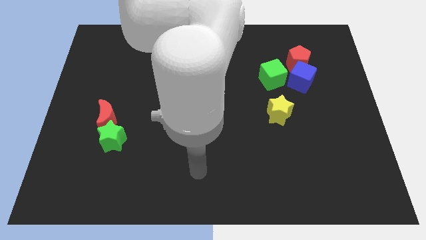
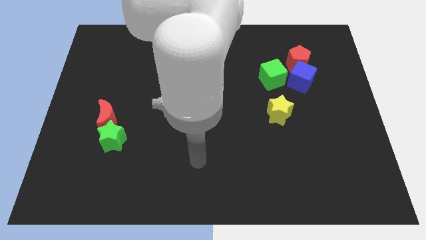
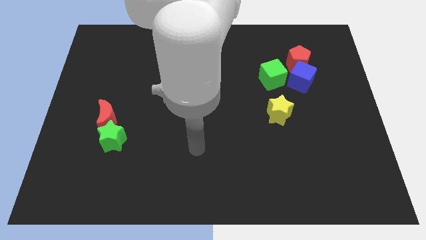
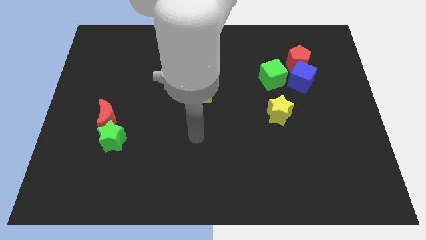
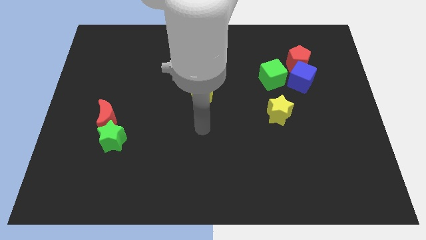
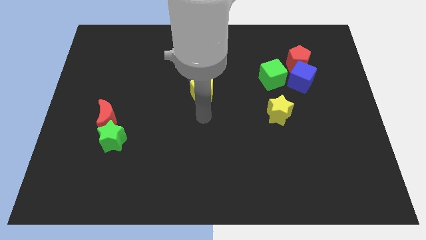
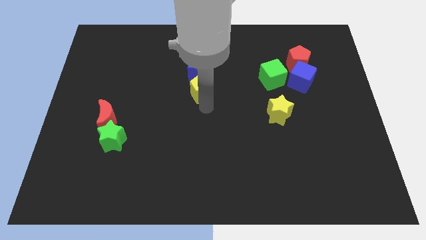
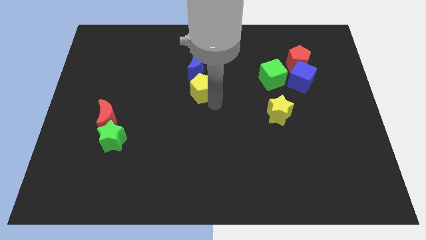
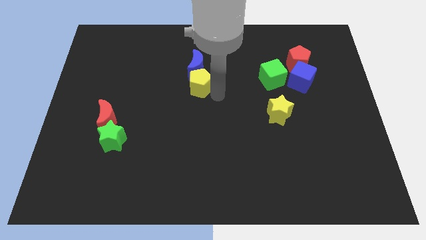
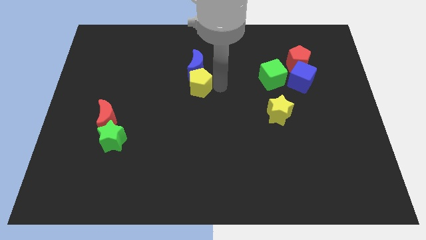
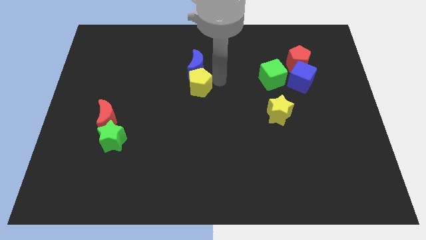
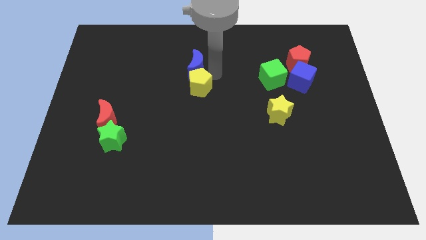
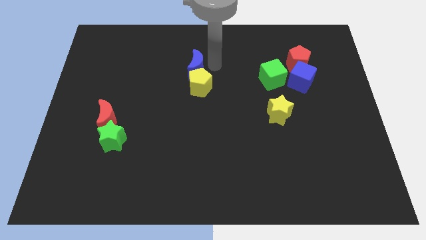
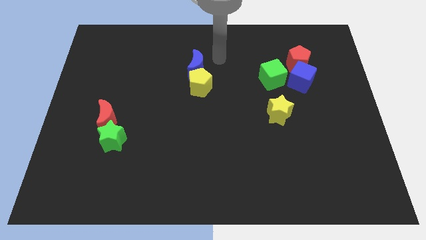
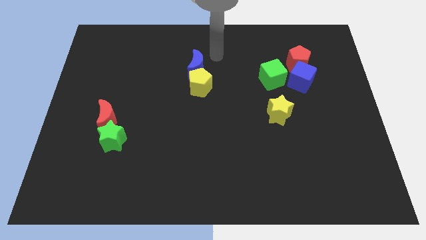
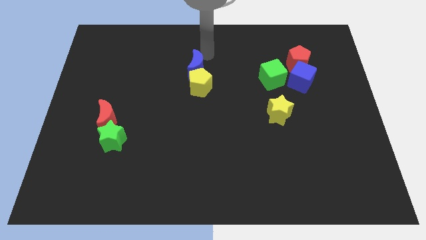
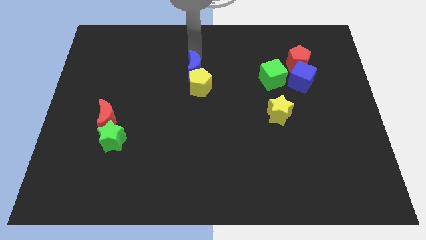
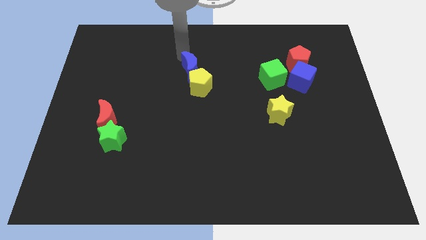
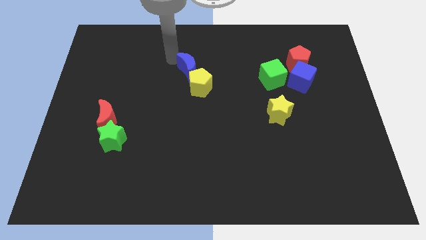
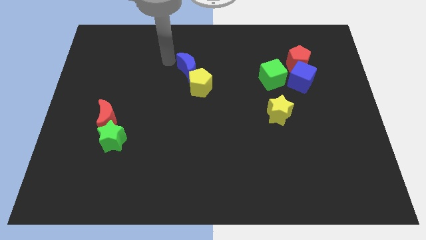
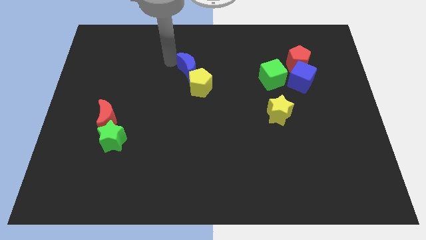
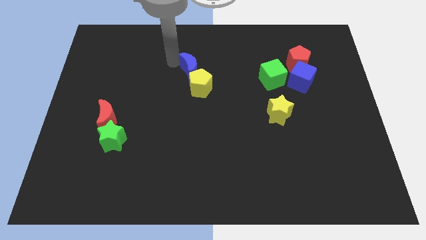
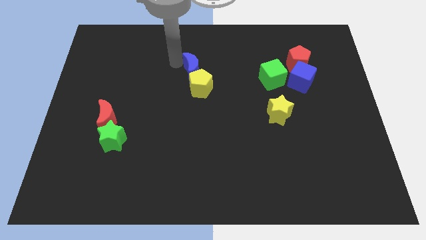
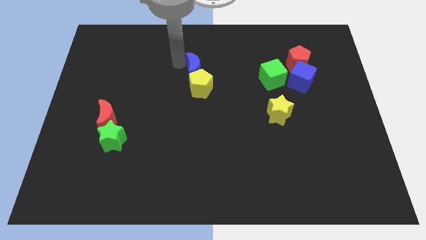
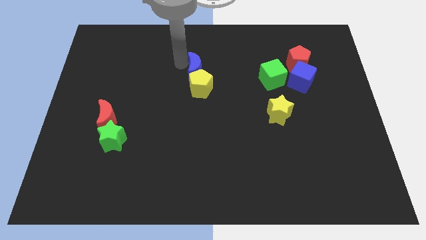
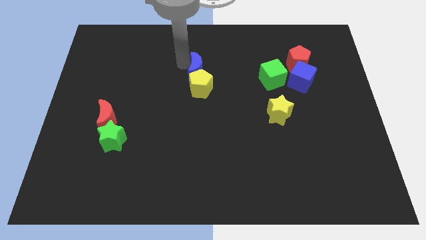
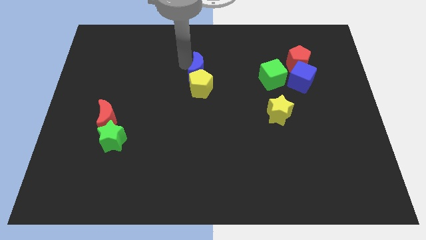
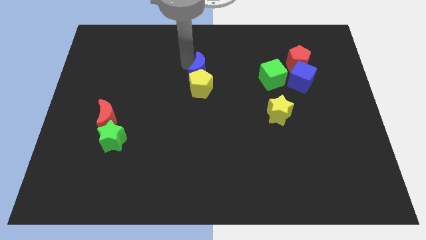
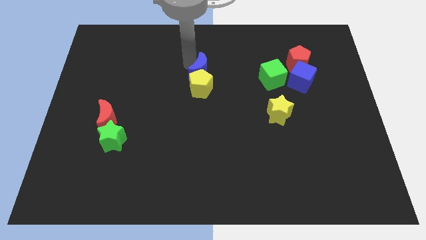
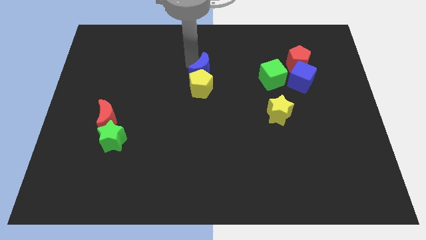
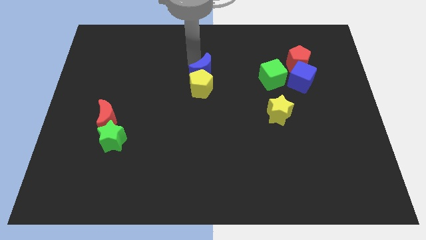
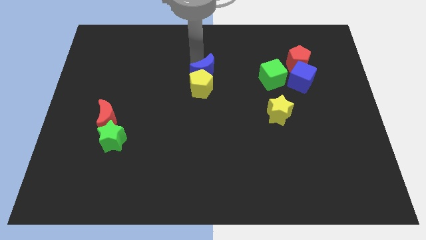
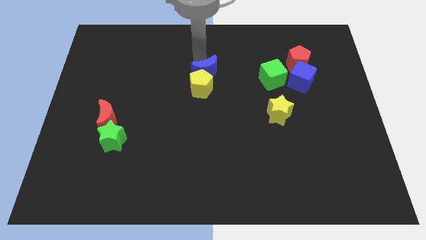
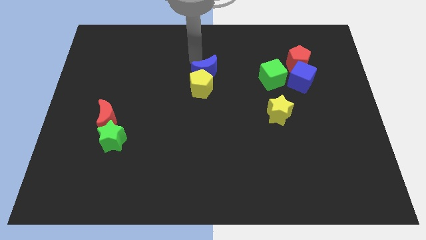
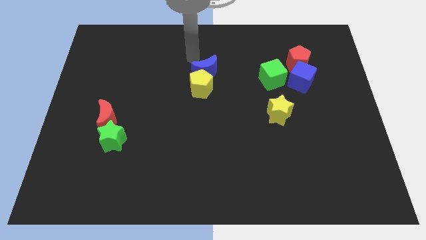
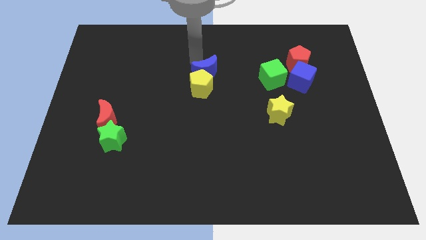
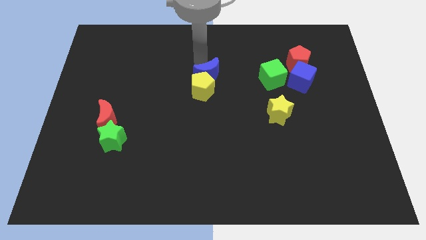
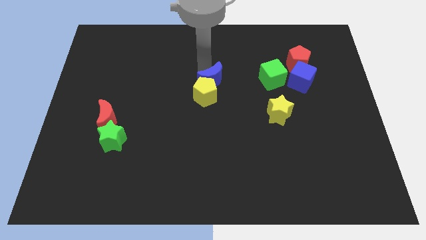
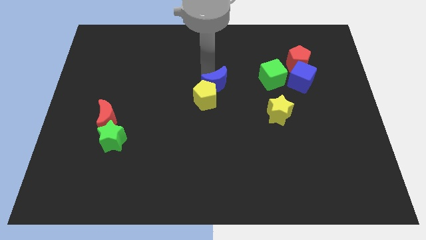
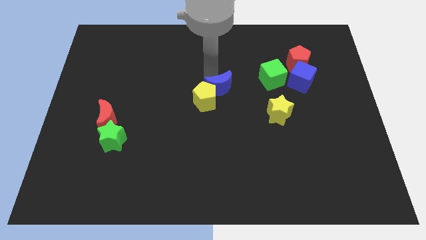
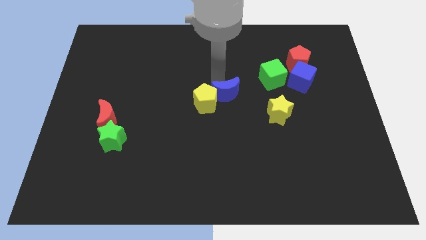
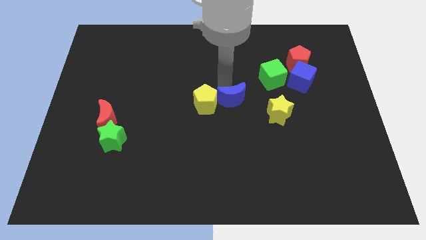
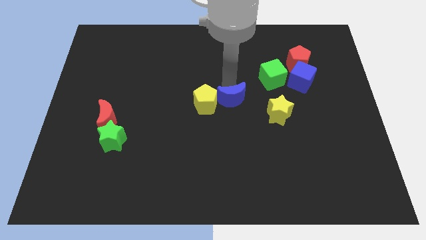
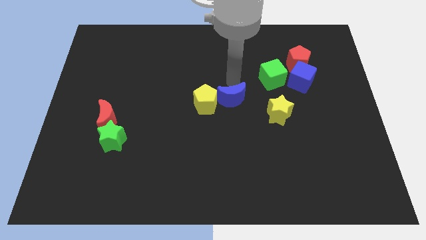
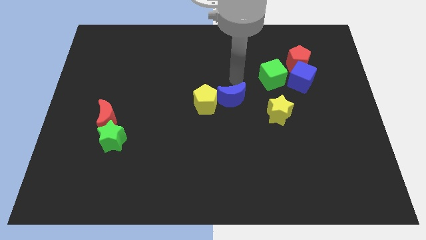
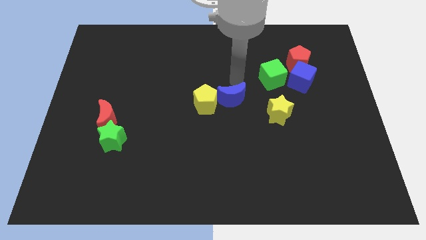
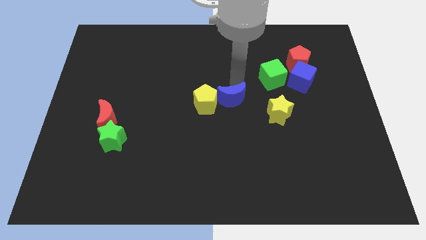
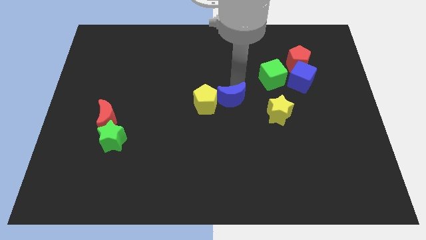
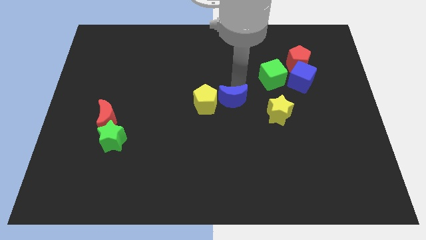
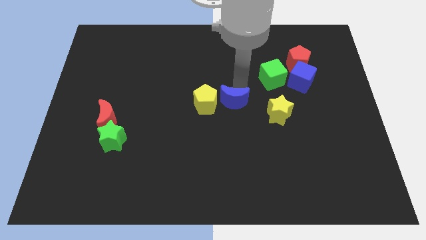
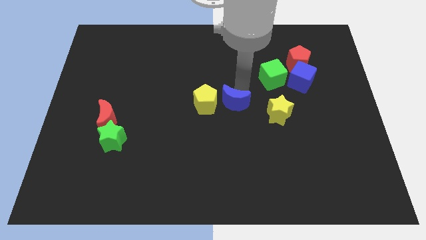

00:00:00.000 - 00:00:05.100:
push the blue moon to the bottom right of the yellow pentagon

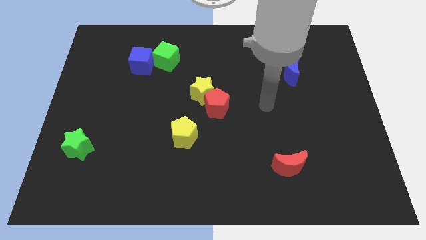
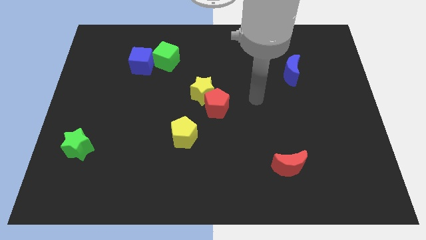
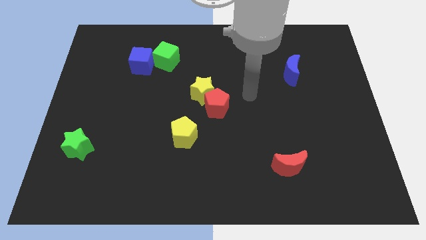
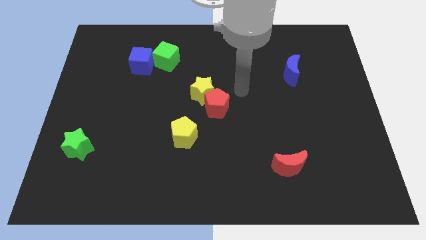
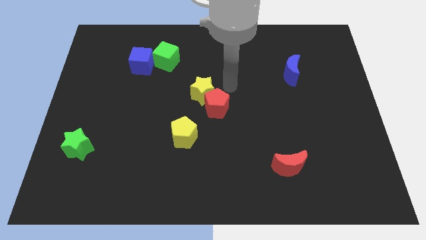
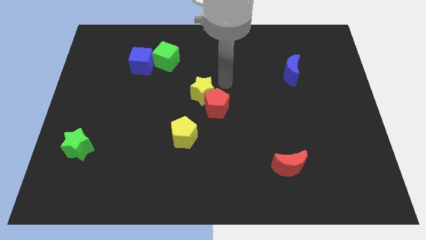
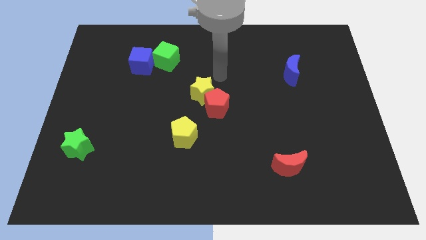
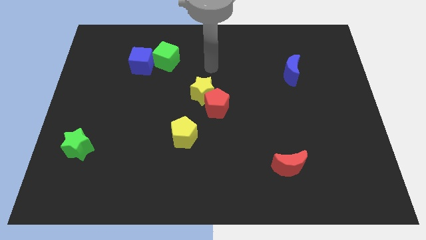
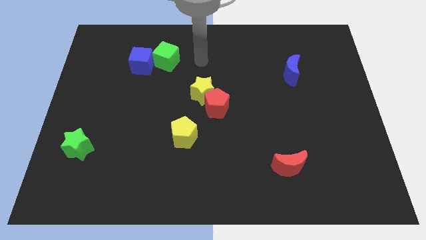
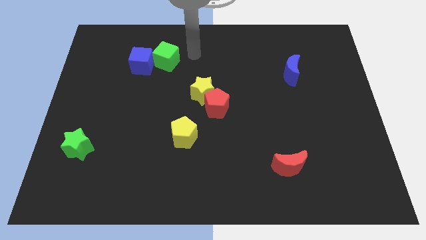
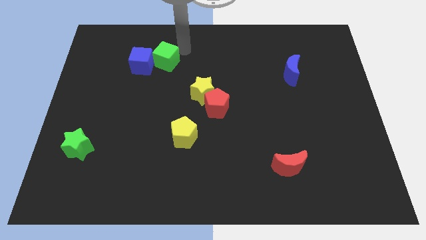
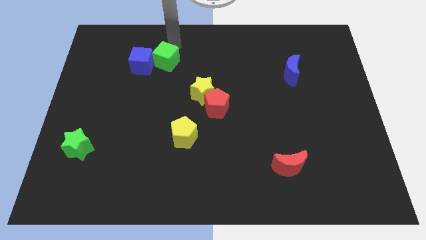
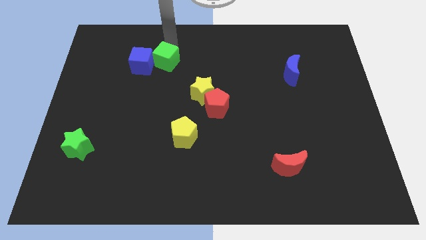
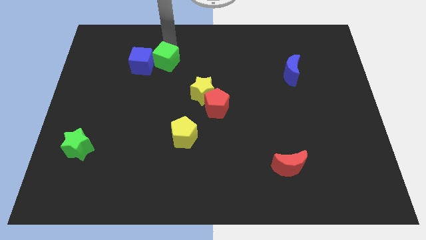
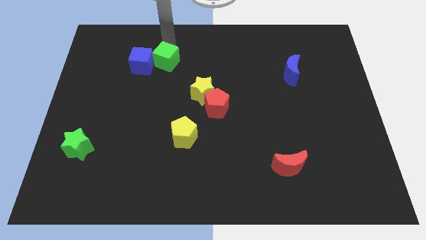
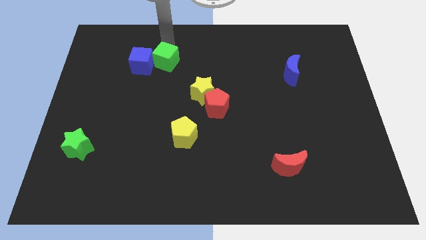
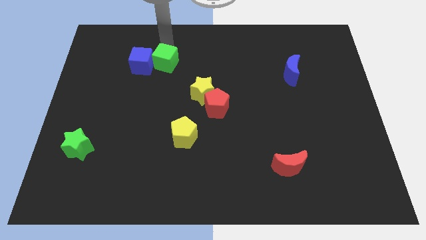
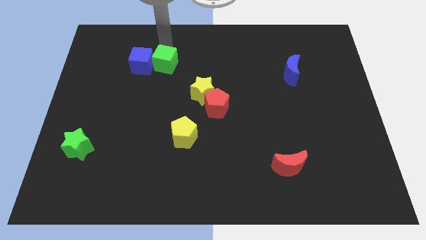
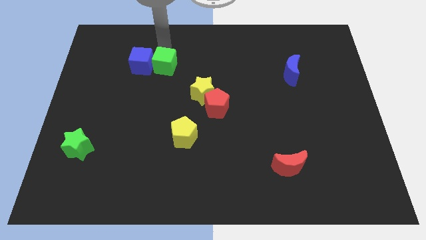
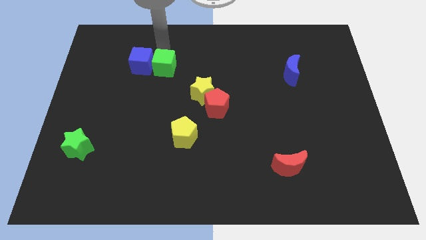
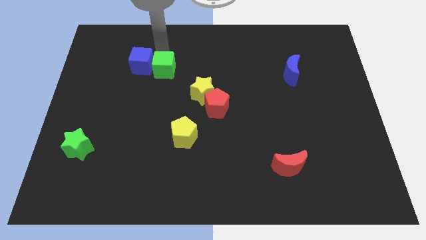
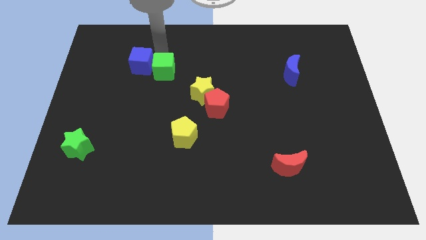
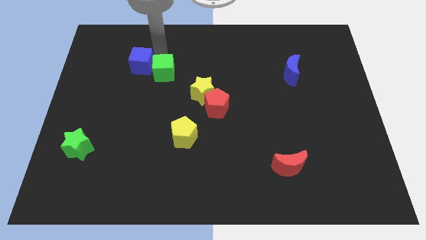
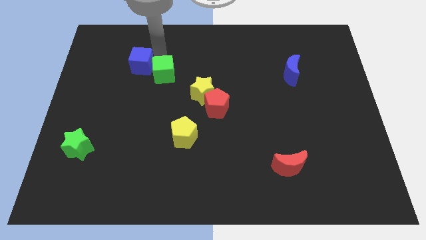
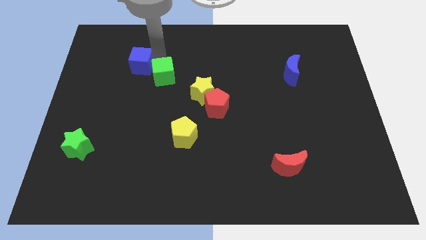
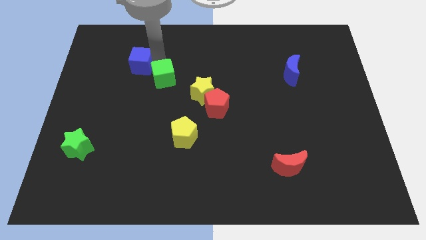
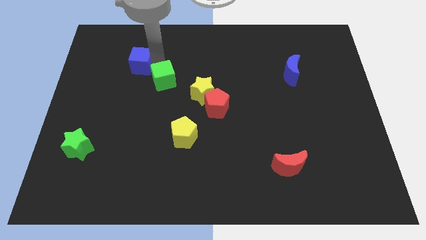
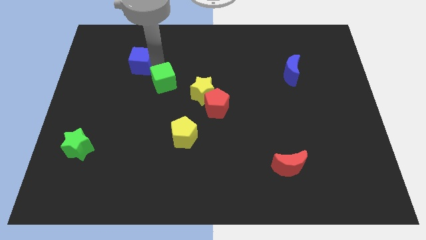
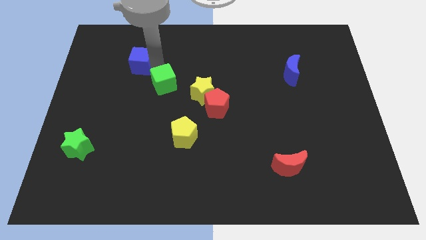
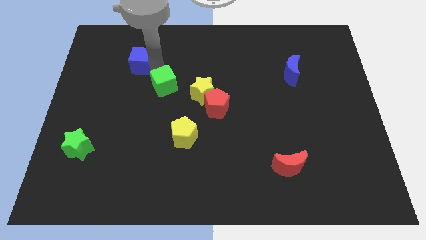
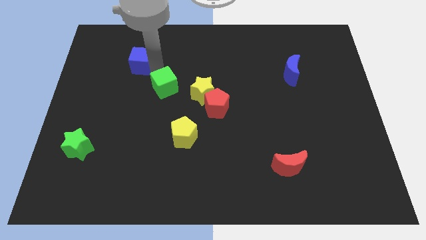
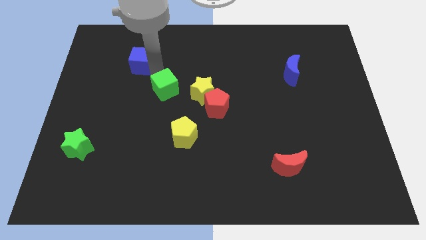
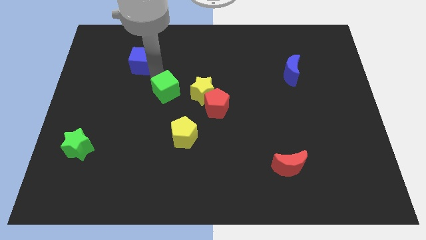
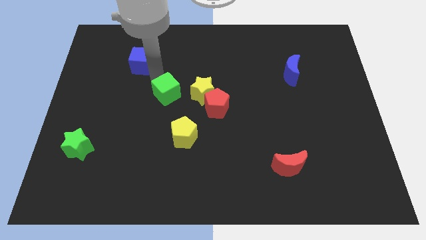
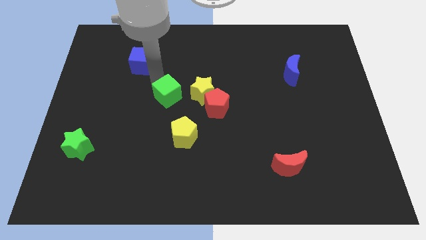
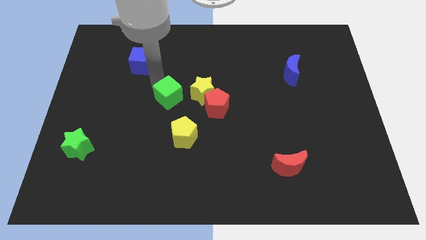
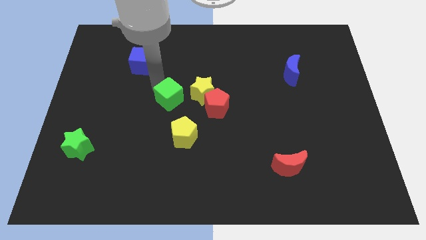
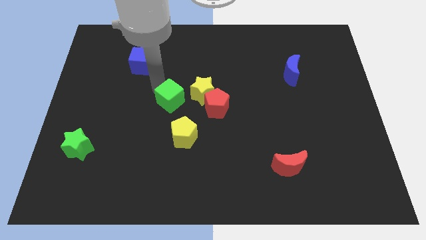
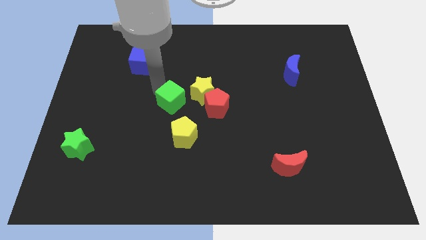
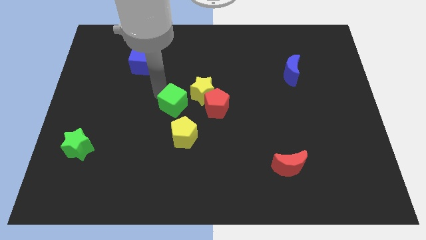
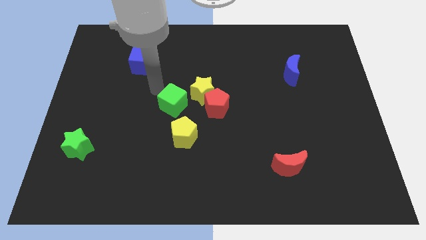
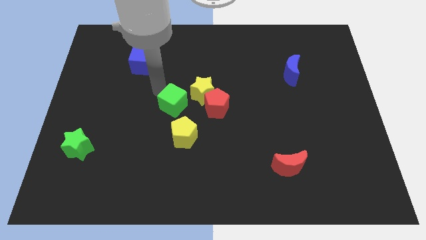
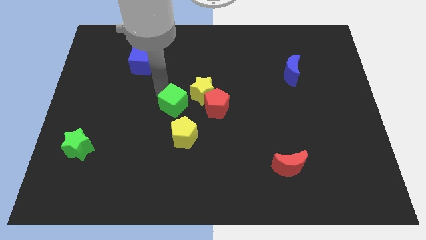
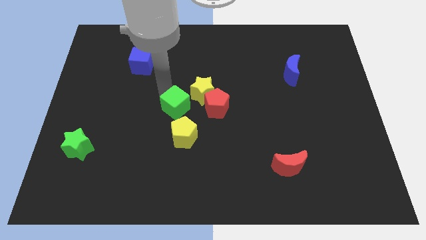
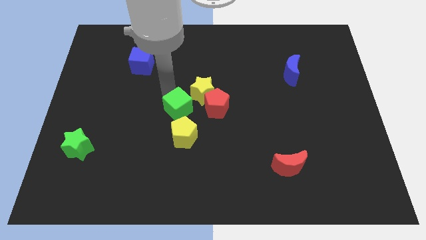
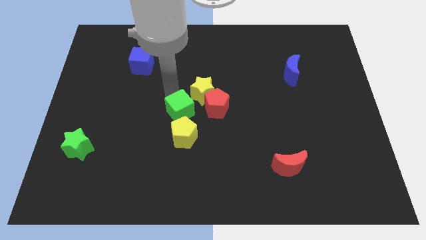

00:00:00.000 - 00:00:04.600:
slide the green cube to the bottom side of the yellow star
